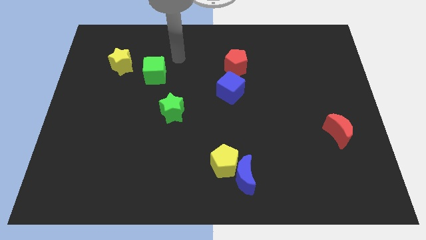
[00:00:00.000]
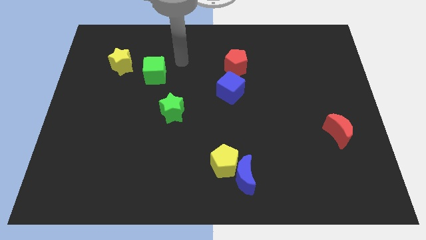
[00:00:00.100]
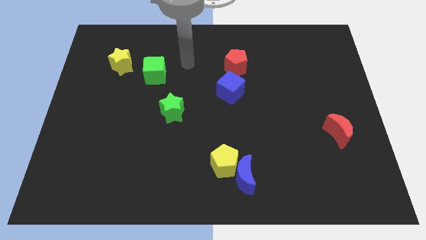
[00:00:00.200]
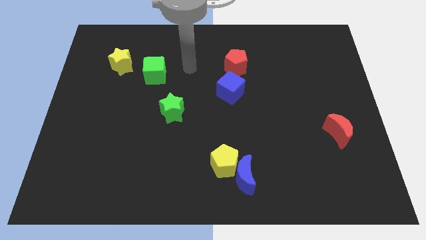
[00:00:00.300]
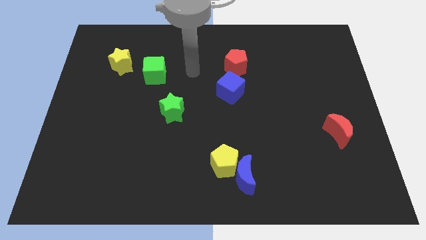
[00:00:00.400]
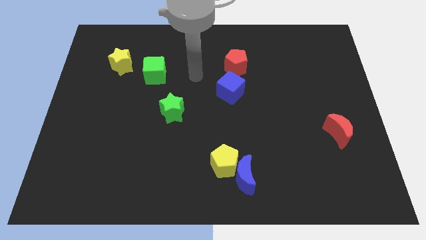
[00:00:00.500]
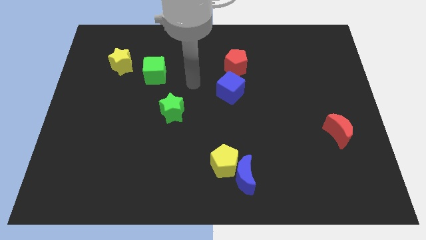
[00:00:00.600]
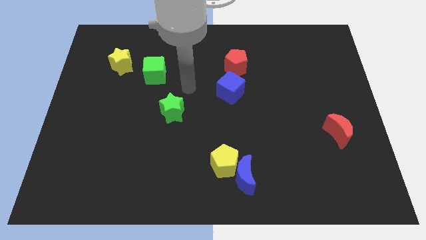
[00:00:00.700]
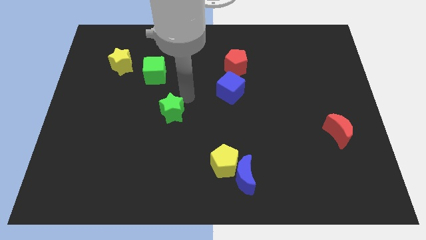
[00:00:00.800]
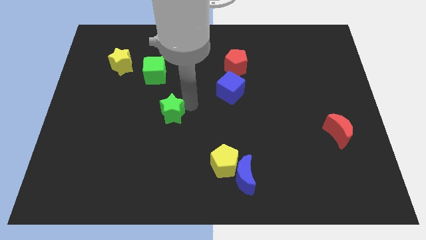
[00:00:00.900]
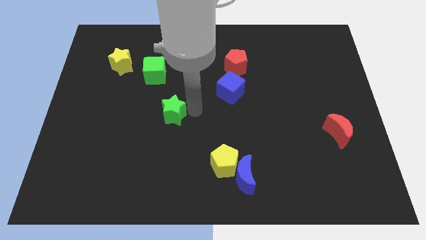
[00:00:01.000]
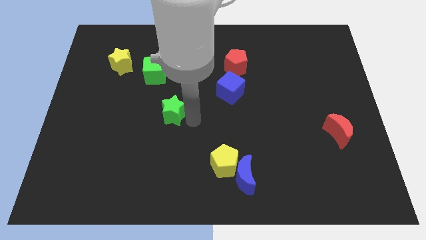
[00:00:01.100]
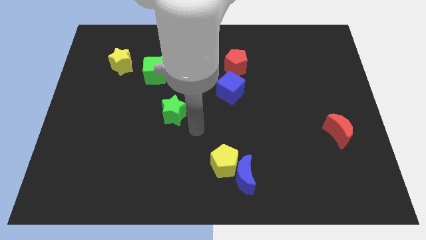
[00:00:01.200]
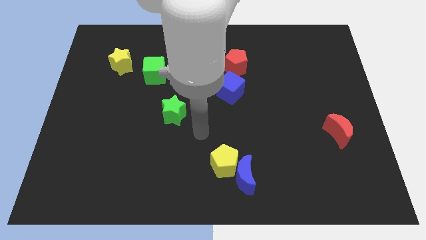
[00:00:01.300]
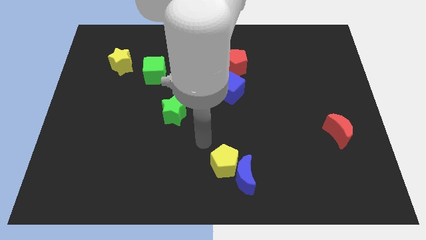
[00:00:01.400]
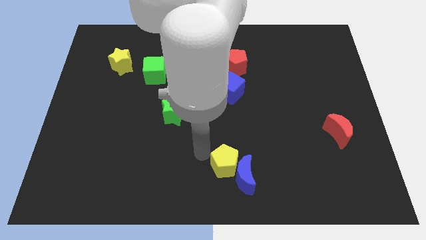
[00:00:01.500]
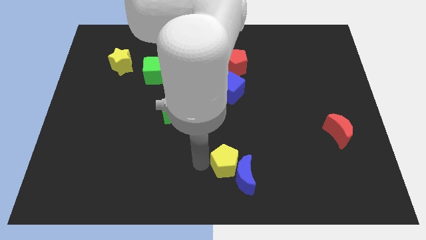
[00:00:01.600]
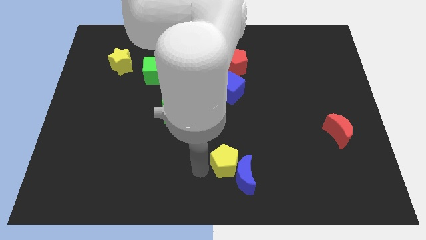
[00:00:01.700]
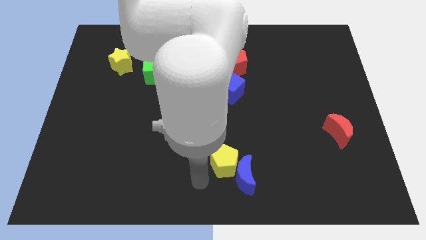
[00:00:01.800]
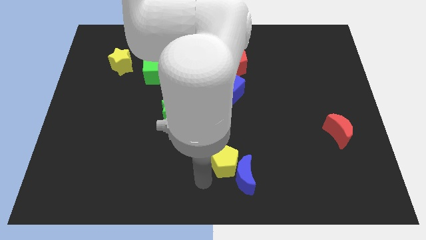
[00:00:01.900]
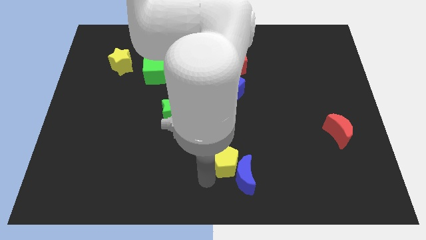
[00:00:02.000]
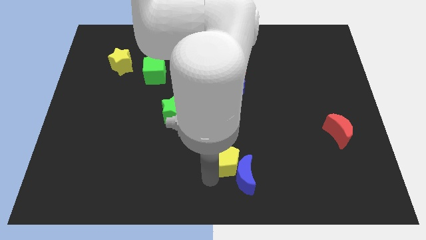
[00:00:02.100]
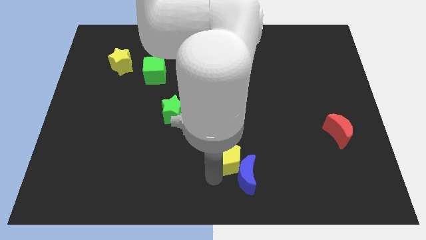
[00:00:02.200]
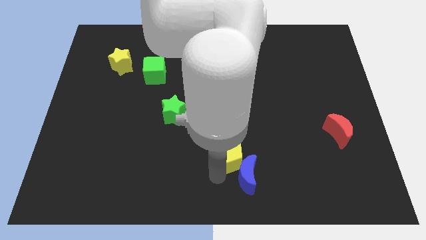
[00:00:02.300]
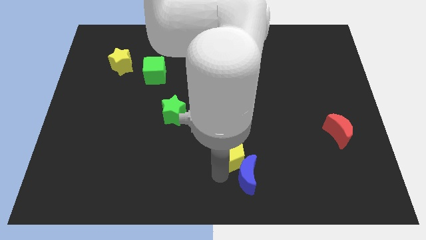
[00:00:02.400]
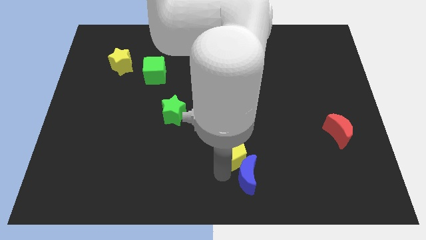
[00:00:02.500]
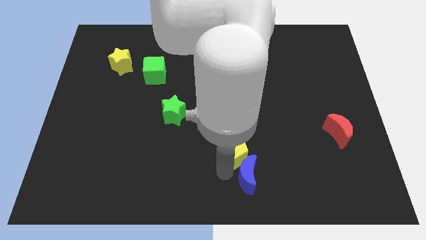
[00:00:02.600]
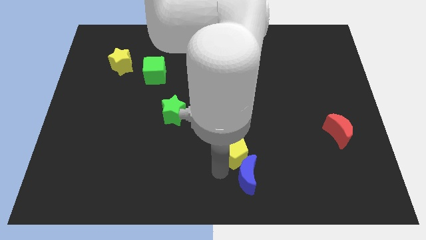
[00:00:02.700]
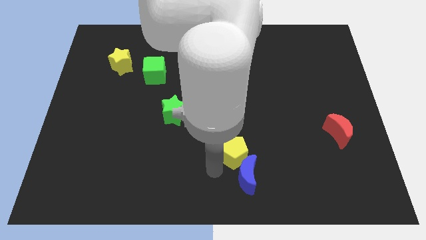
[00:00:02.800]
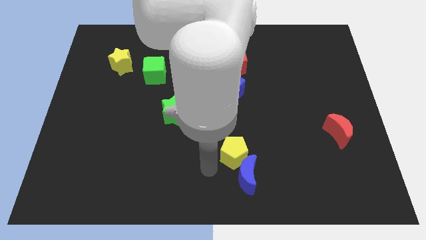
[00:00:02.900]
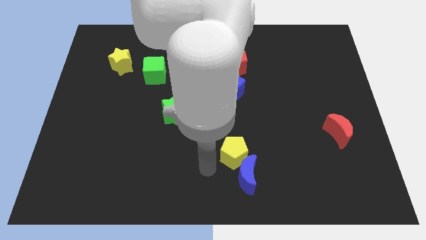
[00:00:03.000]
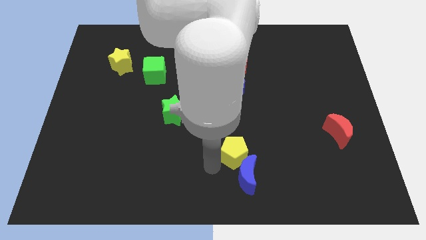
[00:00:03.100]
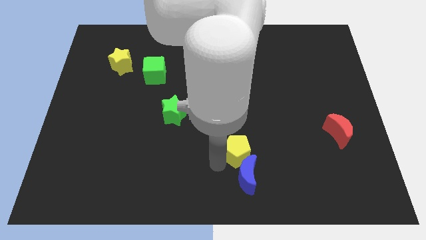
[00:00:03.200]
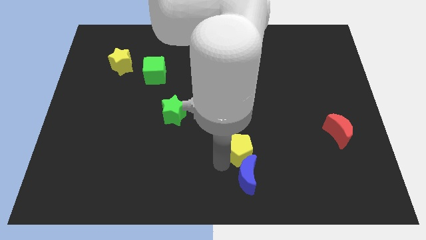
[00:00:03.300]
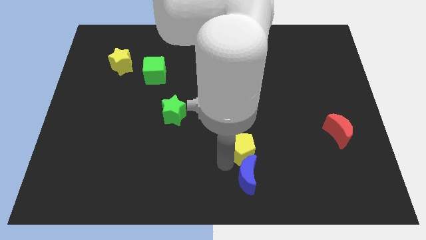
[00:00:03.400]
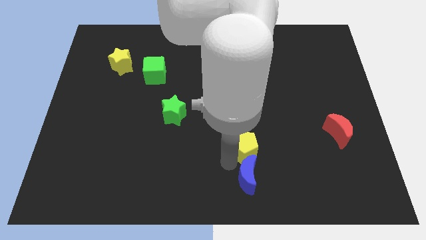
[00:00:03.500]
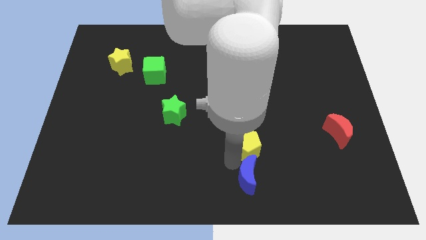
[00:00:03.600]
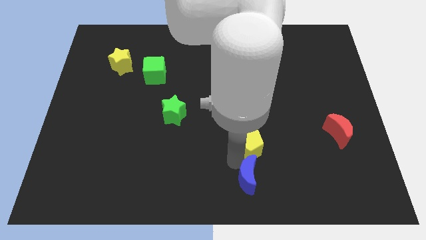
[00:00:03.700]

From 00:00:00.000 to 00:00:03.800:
move the yellow pentagon upwards and to the right diagonally a little bit

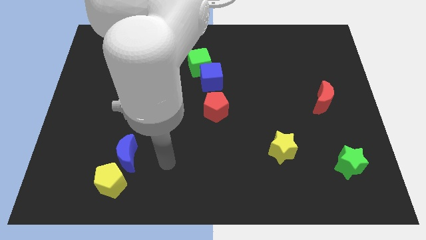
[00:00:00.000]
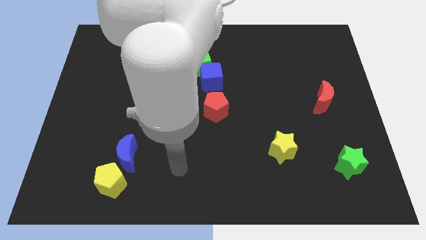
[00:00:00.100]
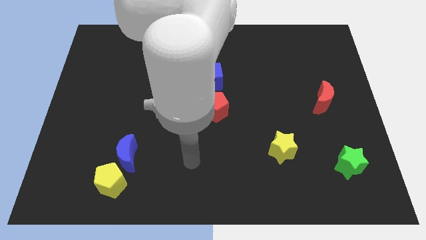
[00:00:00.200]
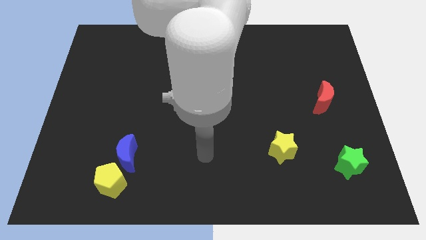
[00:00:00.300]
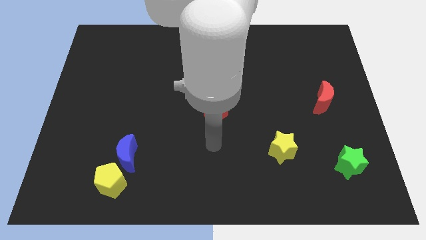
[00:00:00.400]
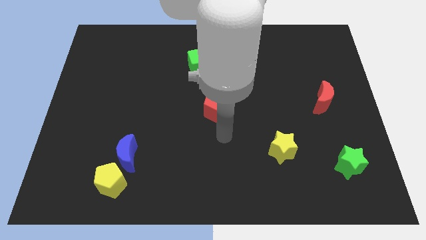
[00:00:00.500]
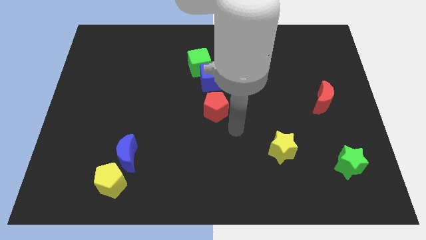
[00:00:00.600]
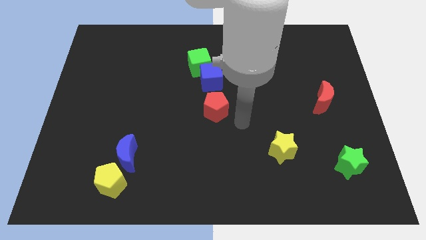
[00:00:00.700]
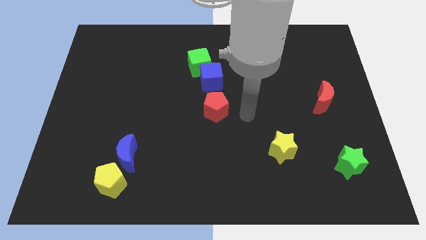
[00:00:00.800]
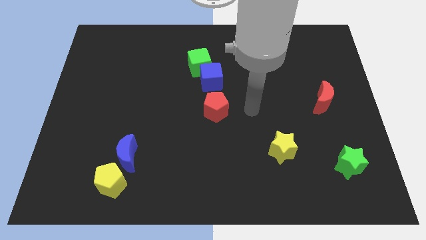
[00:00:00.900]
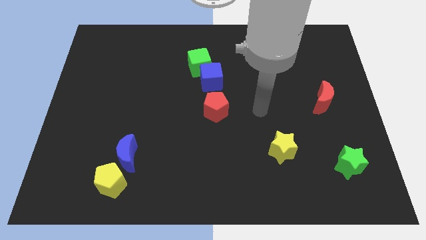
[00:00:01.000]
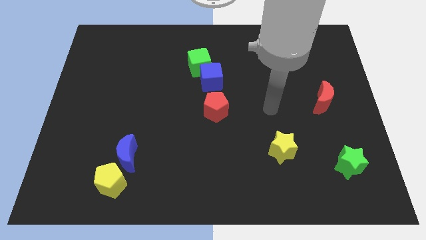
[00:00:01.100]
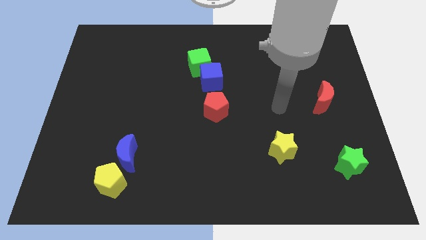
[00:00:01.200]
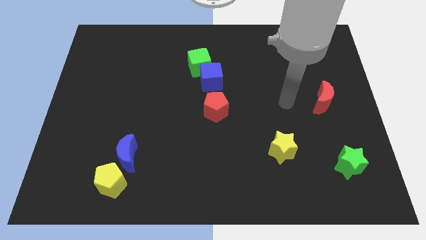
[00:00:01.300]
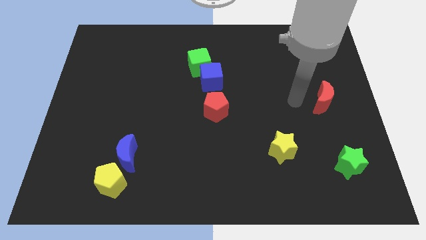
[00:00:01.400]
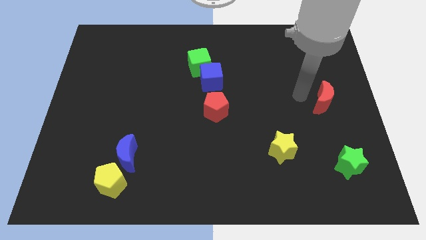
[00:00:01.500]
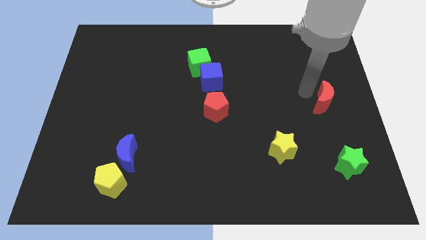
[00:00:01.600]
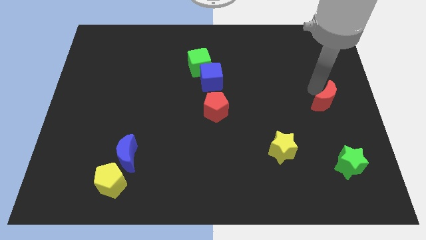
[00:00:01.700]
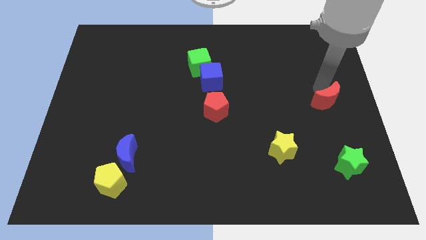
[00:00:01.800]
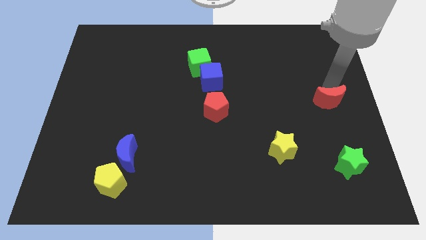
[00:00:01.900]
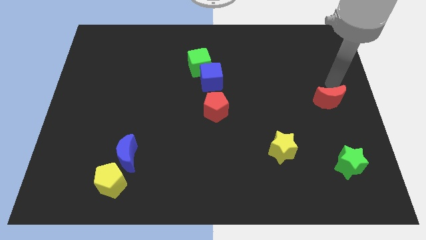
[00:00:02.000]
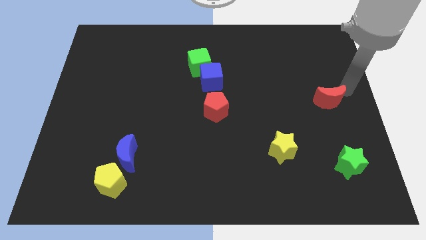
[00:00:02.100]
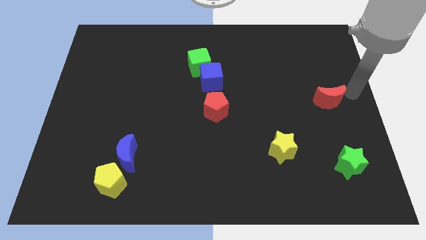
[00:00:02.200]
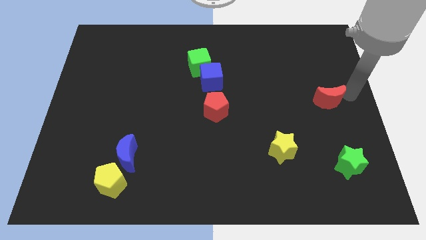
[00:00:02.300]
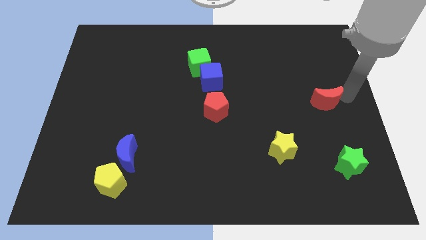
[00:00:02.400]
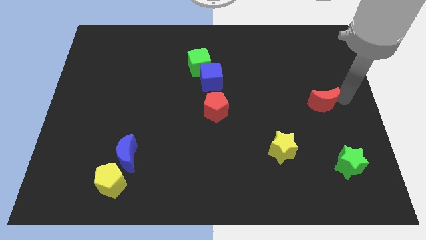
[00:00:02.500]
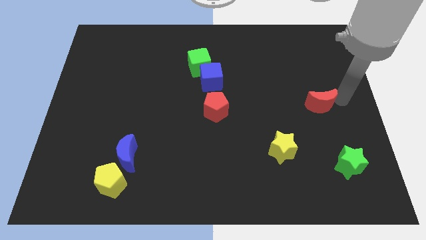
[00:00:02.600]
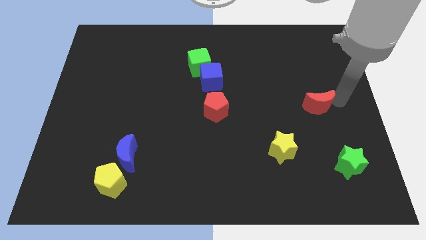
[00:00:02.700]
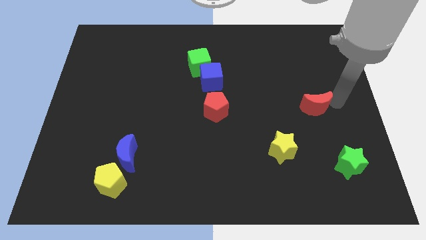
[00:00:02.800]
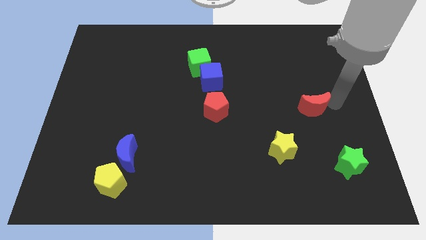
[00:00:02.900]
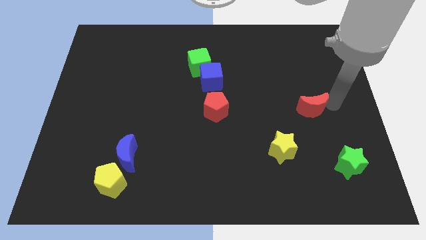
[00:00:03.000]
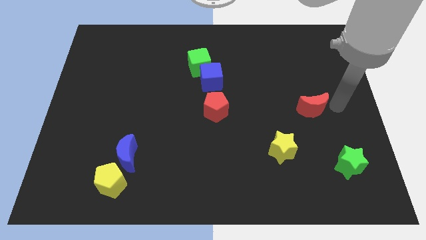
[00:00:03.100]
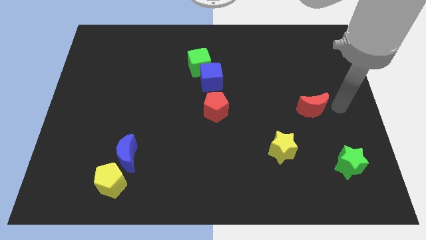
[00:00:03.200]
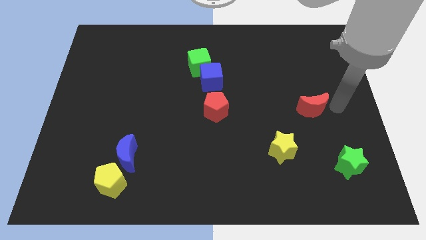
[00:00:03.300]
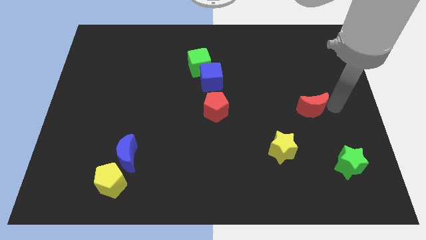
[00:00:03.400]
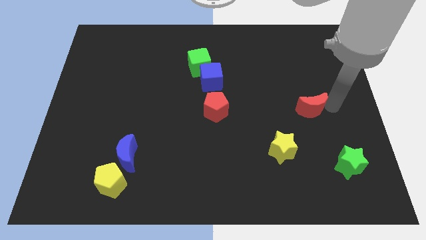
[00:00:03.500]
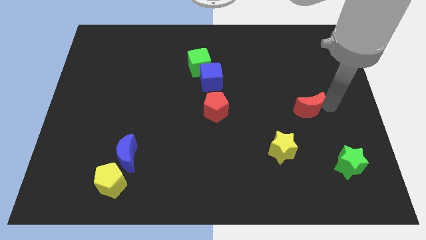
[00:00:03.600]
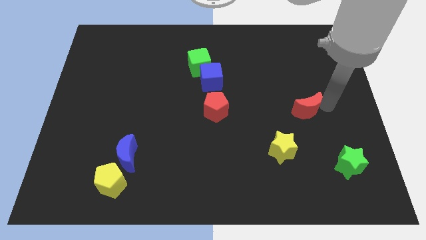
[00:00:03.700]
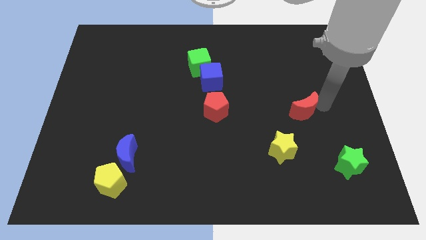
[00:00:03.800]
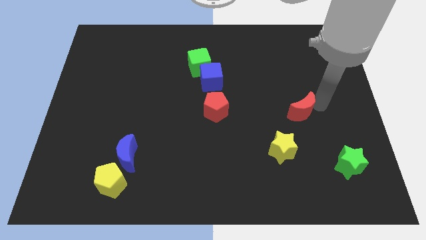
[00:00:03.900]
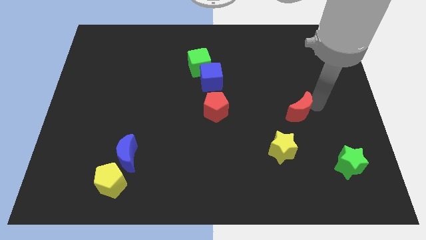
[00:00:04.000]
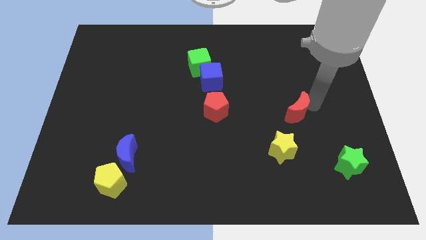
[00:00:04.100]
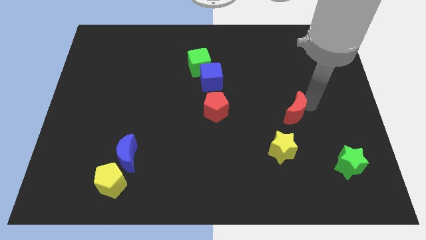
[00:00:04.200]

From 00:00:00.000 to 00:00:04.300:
slide the red moon a little to the left

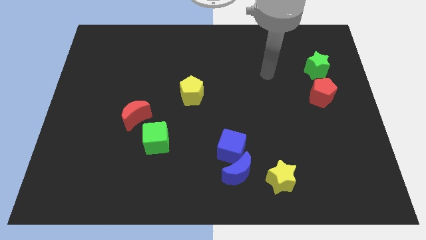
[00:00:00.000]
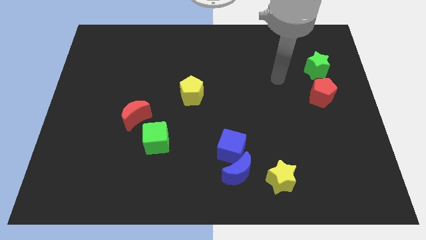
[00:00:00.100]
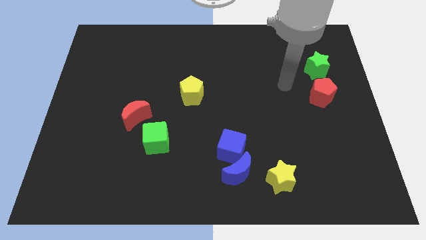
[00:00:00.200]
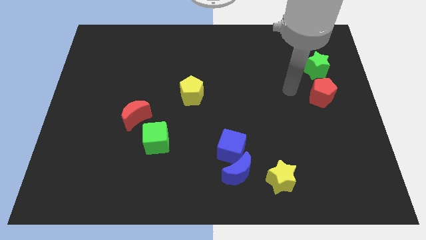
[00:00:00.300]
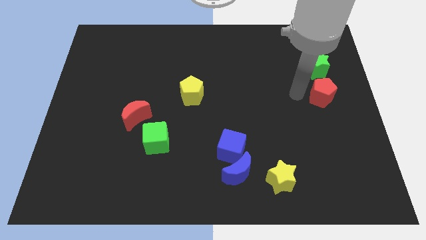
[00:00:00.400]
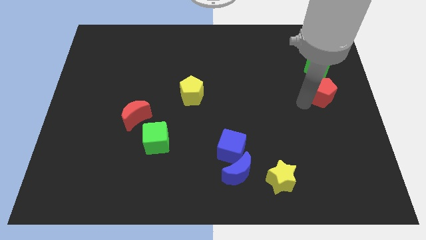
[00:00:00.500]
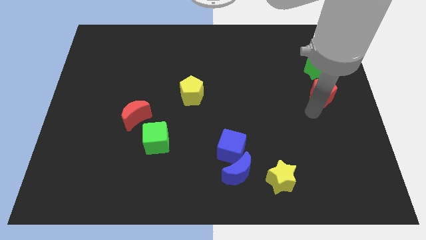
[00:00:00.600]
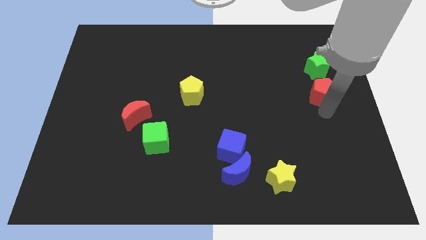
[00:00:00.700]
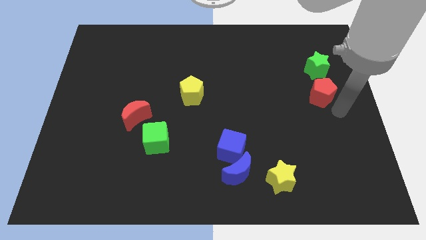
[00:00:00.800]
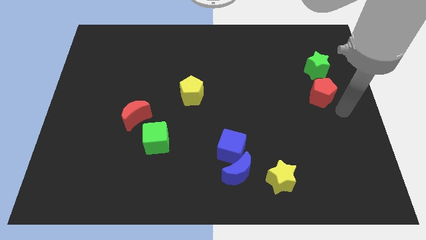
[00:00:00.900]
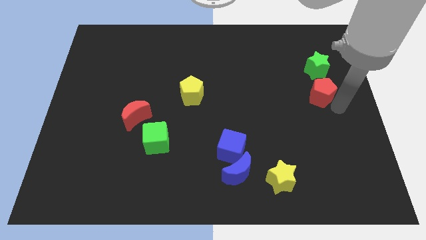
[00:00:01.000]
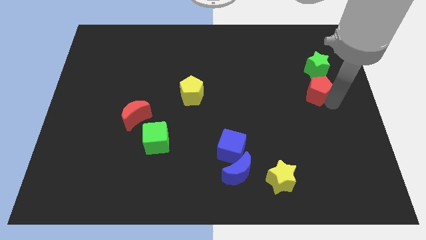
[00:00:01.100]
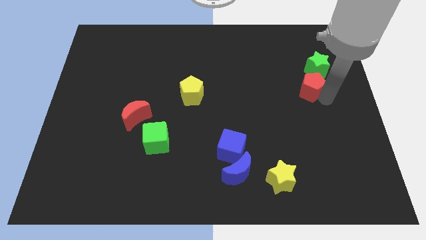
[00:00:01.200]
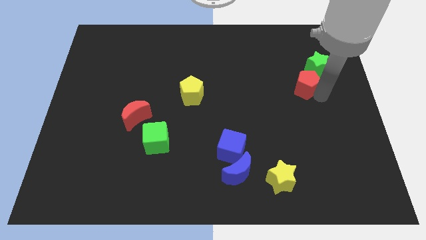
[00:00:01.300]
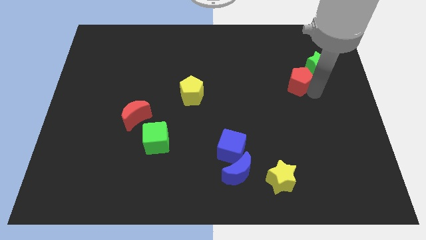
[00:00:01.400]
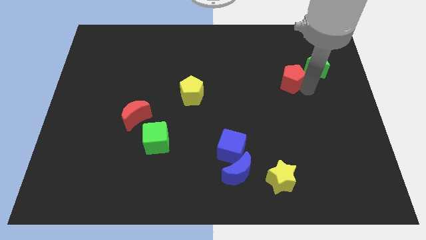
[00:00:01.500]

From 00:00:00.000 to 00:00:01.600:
push the red pentagon diagonally upwards and to the left a bit
